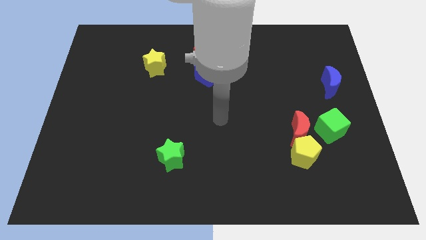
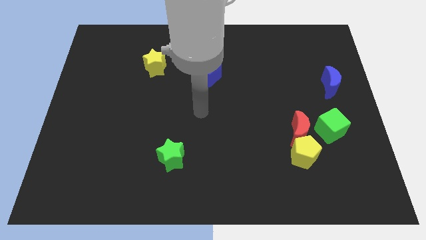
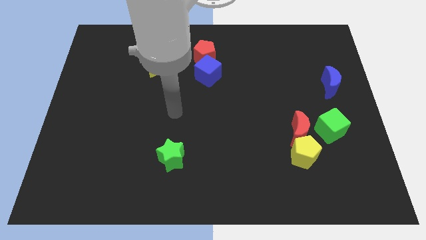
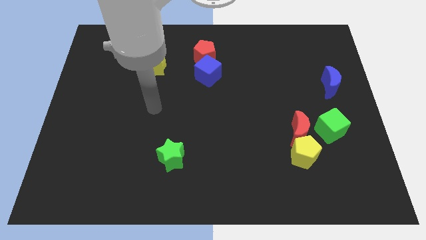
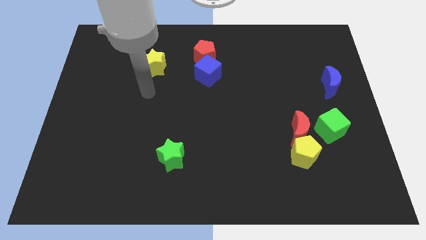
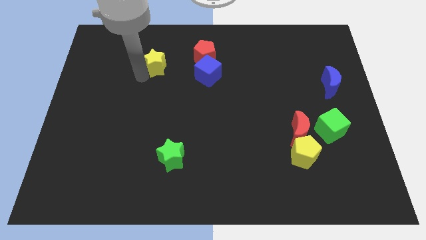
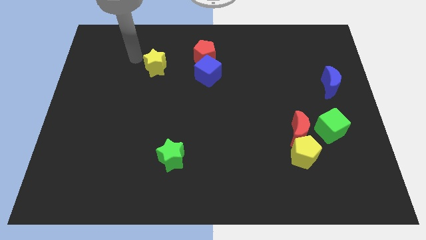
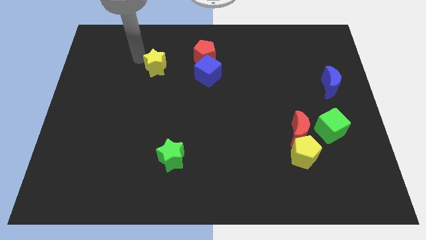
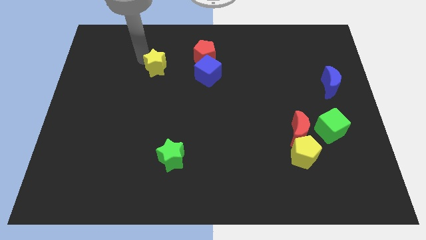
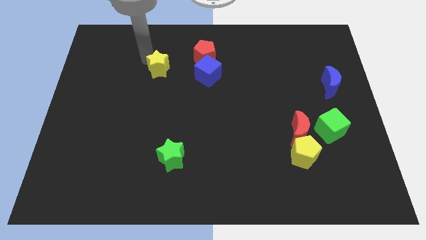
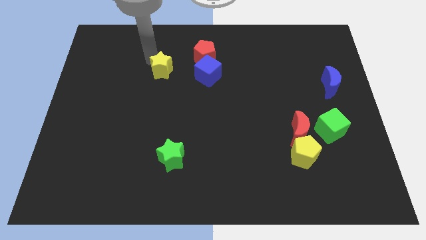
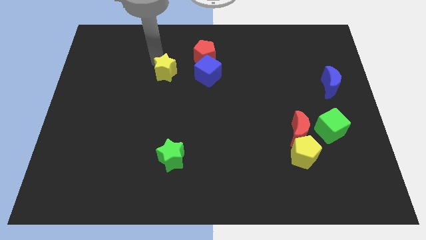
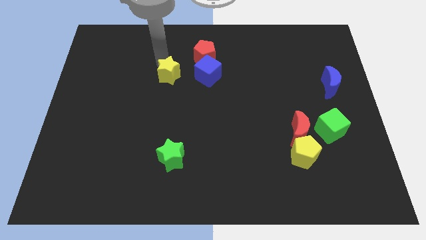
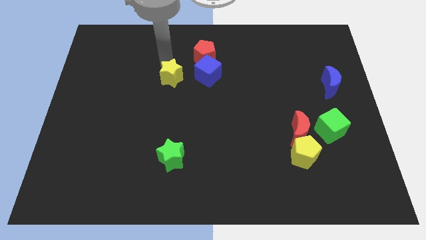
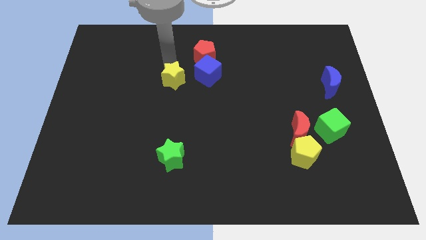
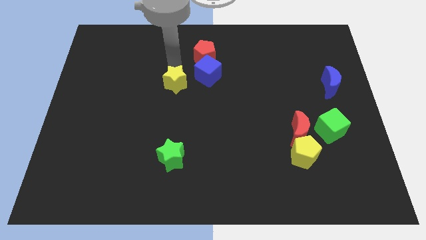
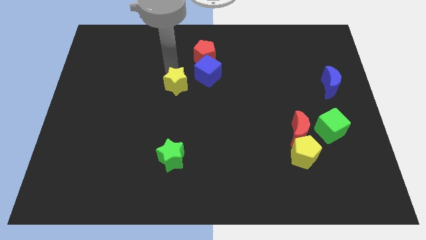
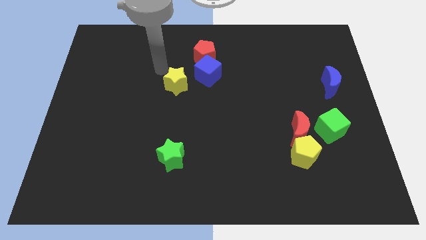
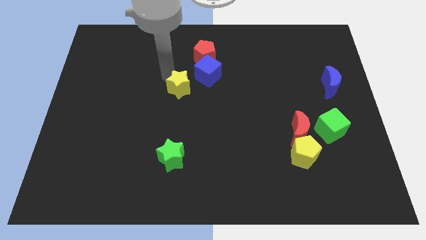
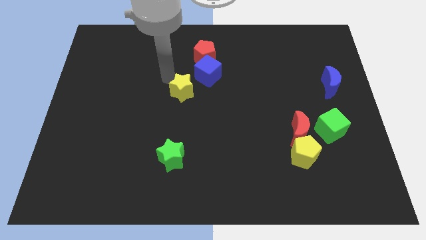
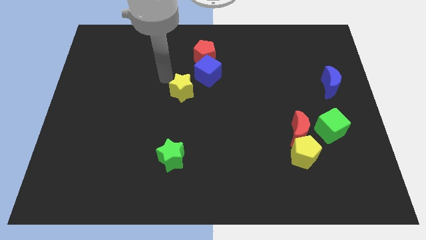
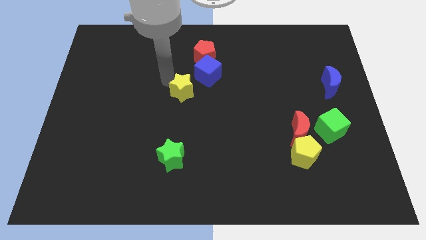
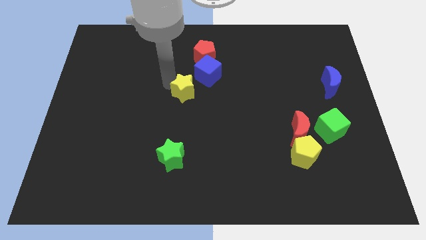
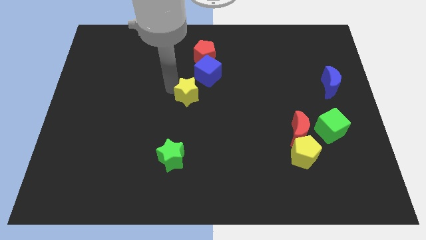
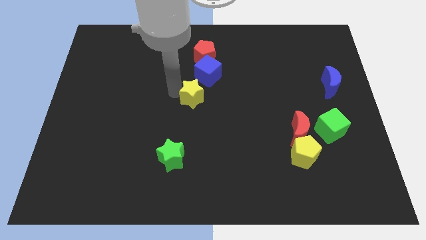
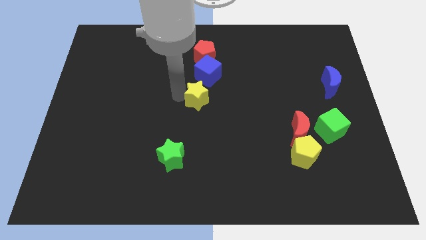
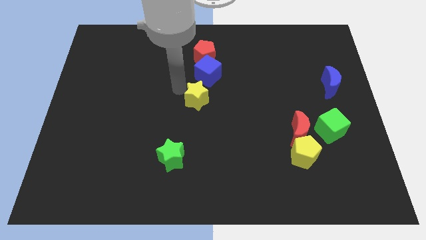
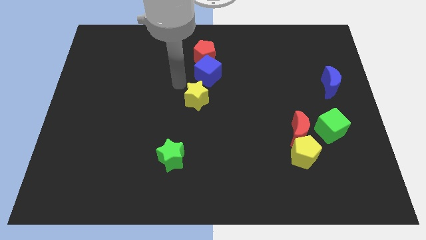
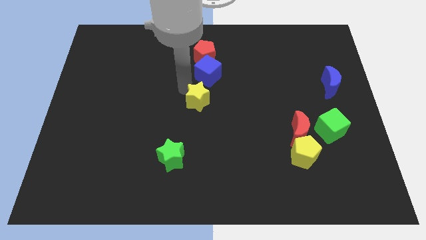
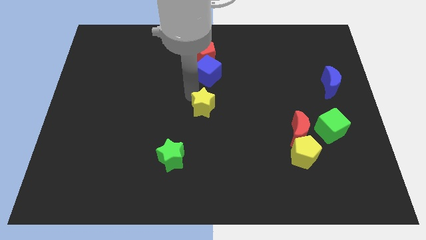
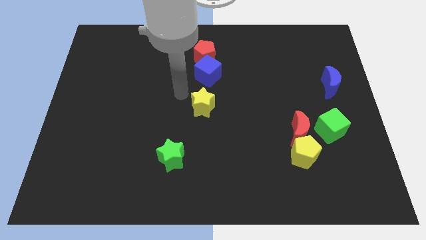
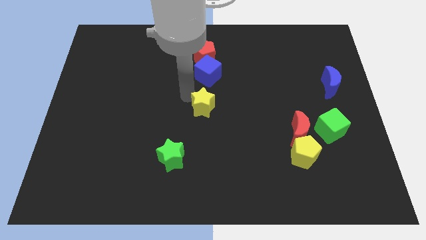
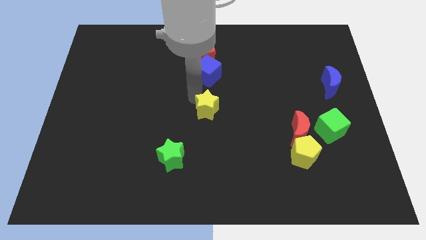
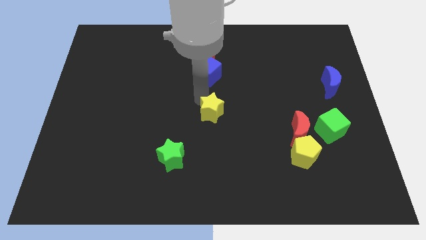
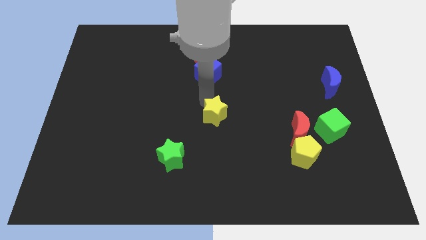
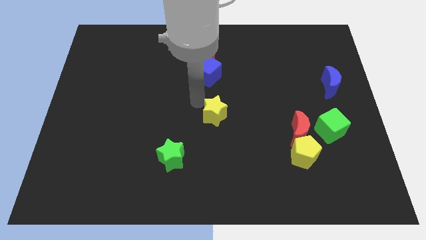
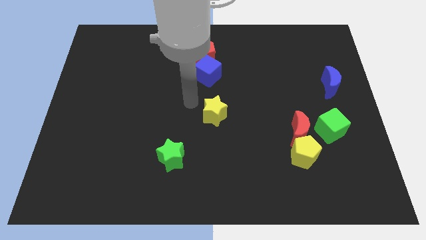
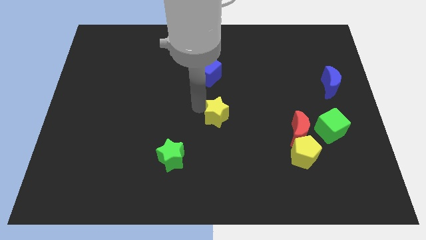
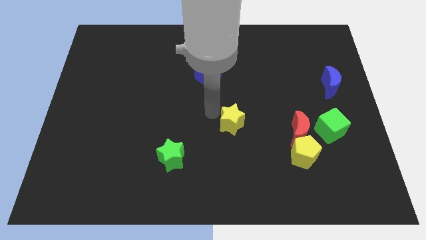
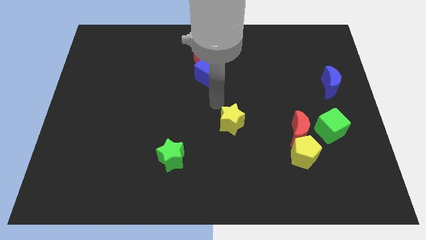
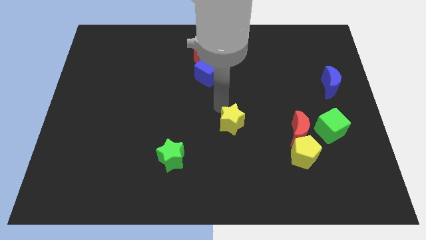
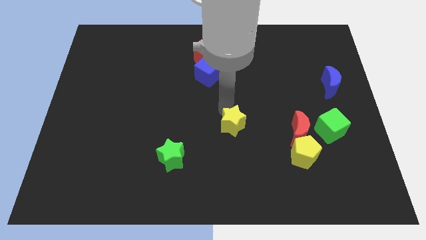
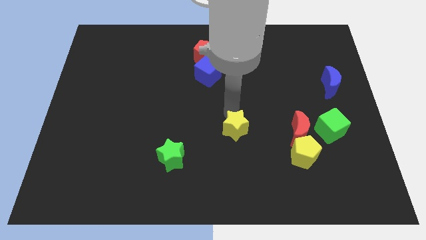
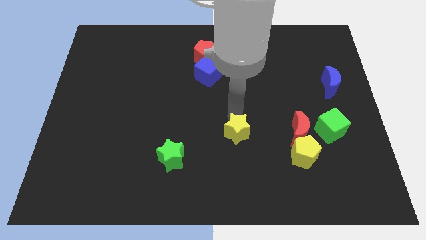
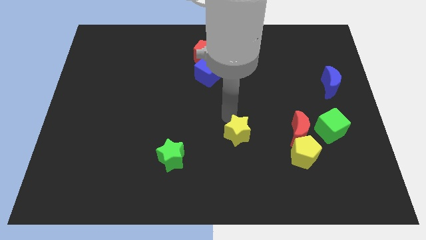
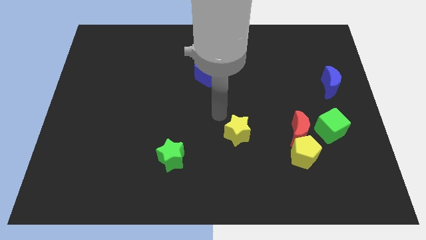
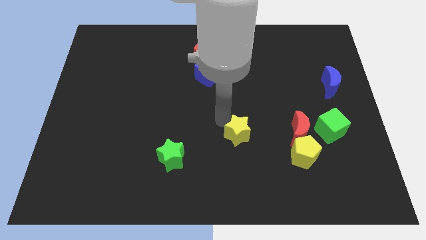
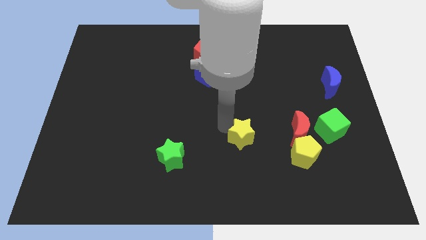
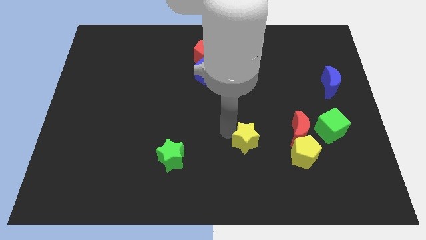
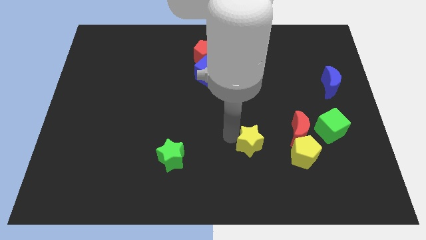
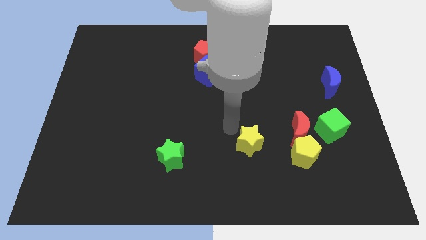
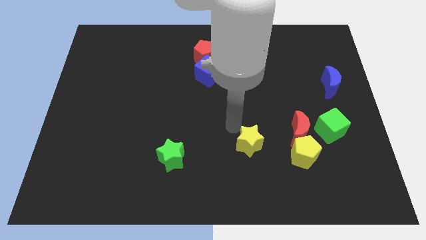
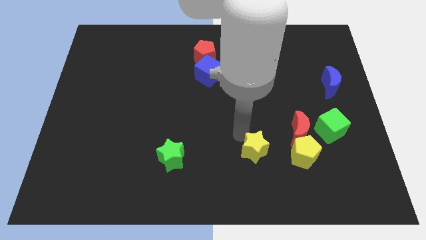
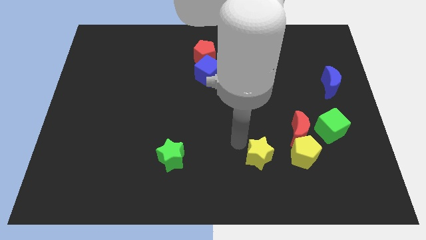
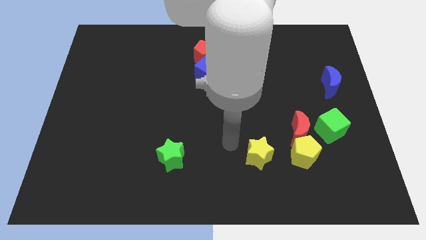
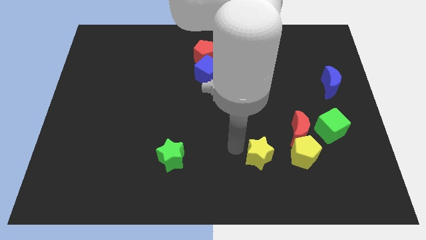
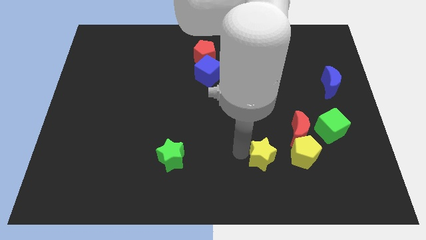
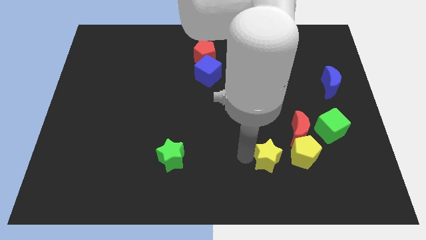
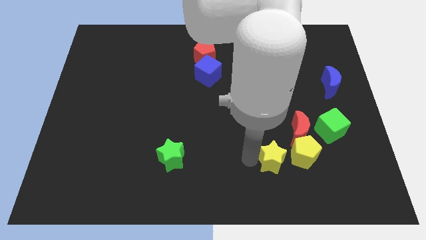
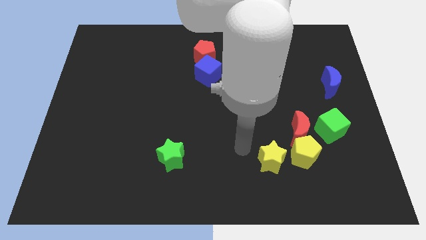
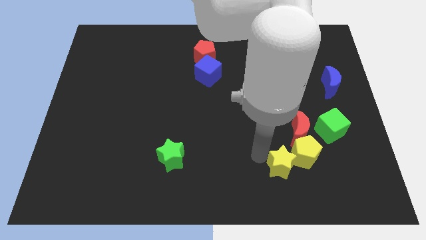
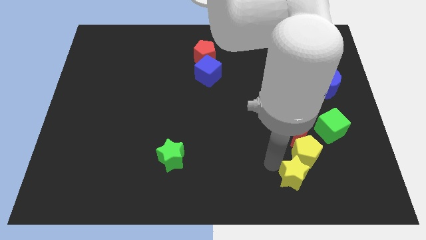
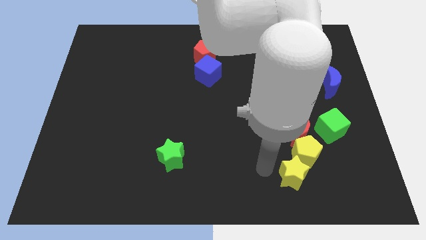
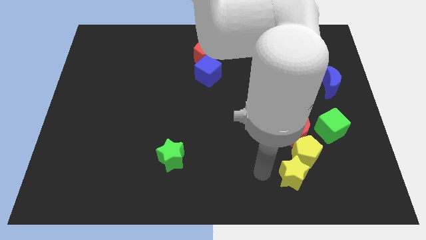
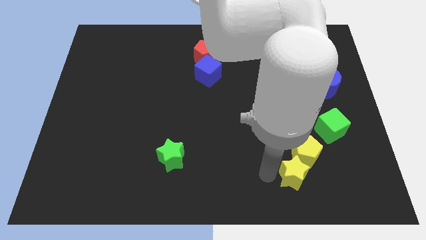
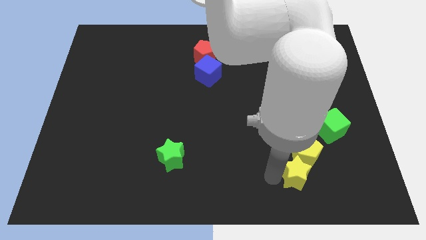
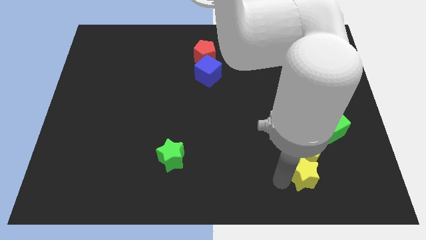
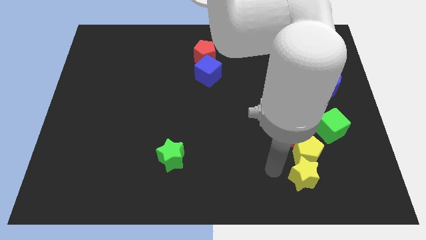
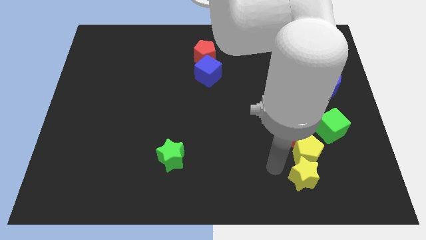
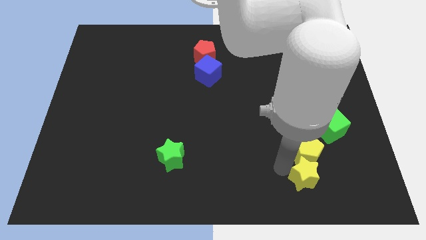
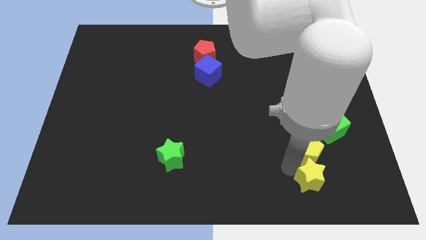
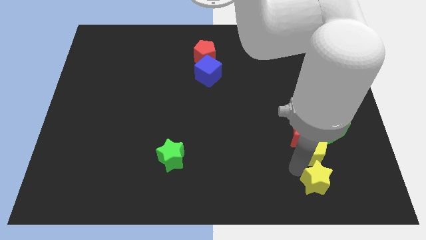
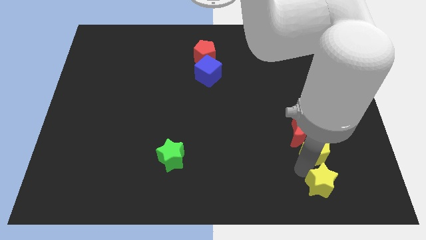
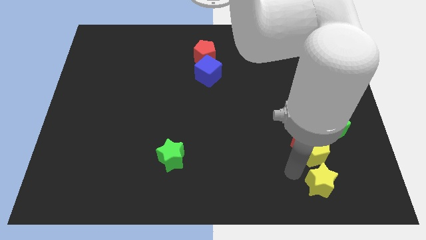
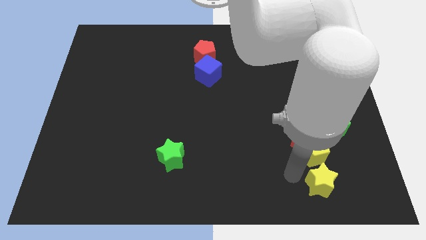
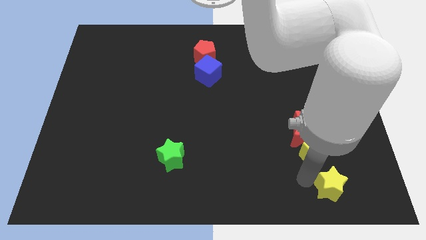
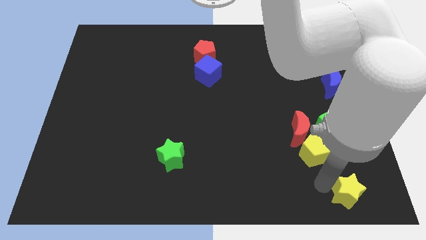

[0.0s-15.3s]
put the yellow star to the bottom right corner
